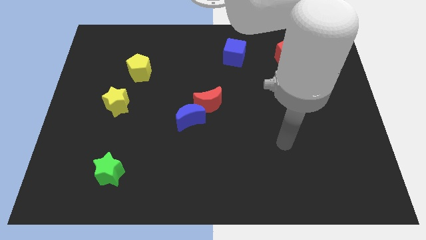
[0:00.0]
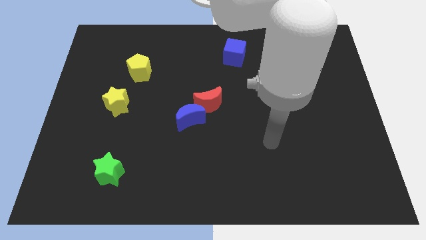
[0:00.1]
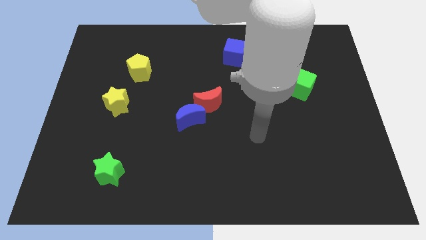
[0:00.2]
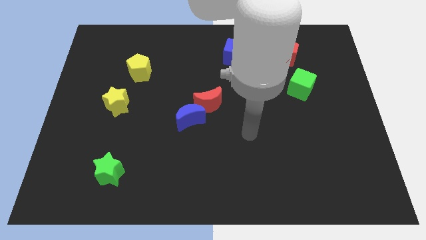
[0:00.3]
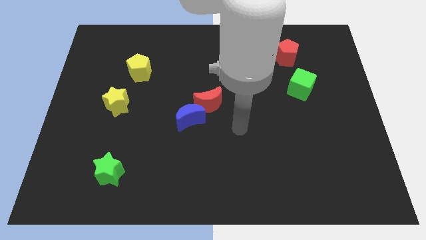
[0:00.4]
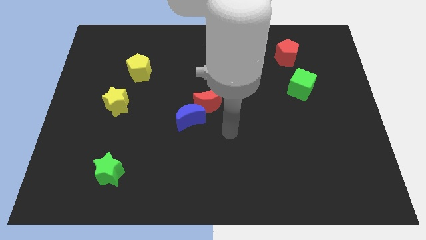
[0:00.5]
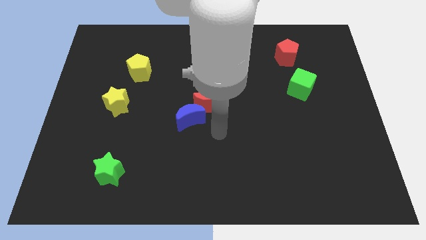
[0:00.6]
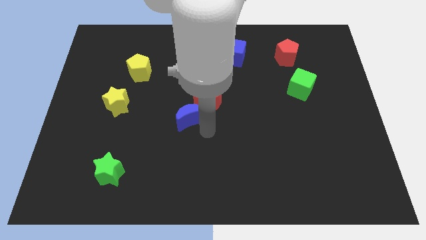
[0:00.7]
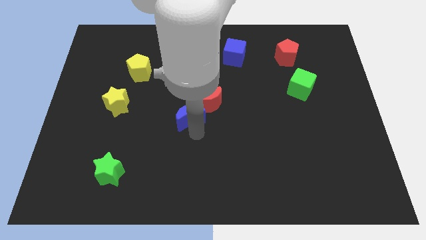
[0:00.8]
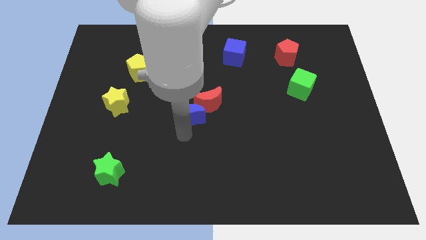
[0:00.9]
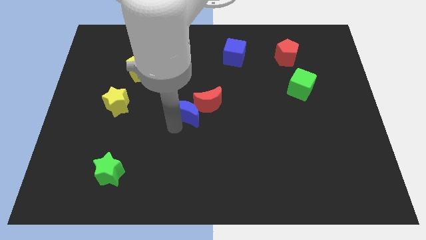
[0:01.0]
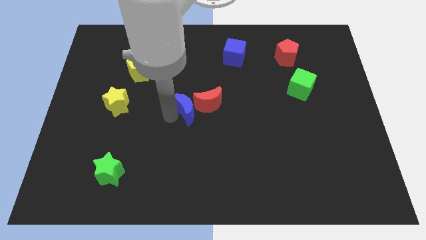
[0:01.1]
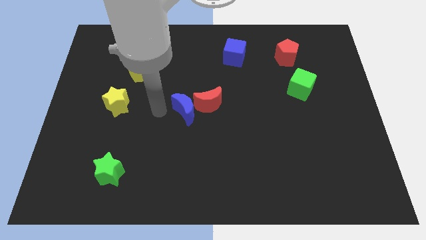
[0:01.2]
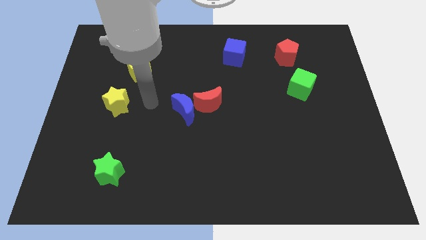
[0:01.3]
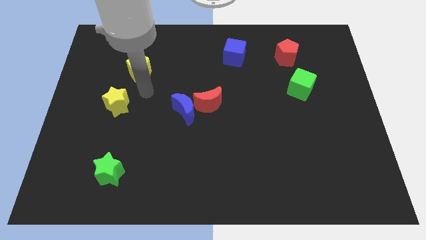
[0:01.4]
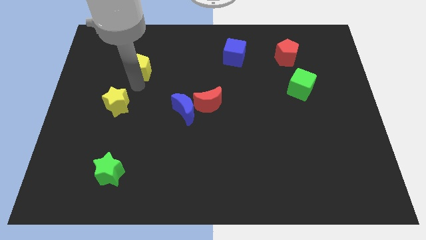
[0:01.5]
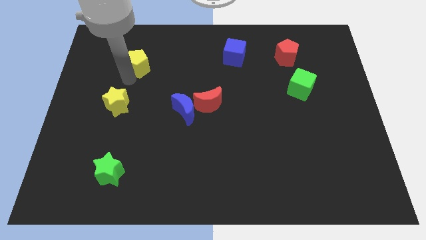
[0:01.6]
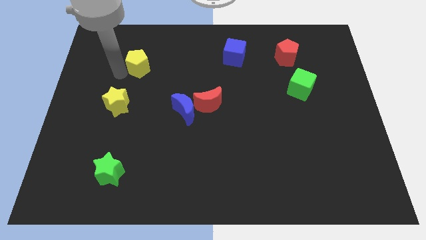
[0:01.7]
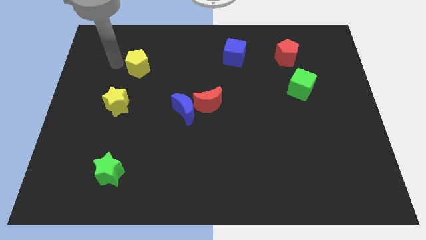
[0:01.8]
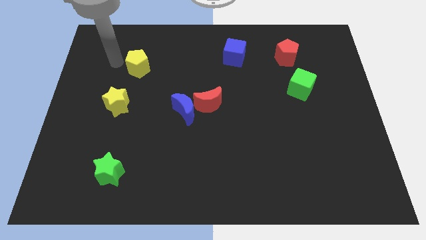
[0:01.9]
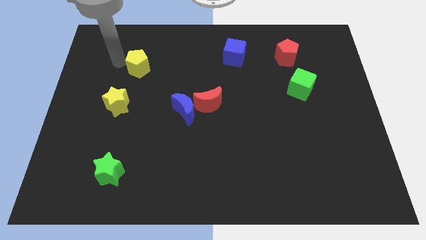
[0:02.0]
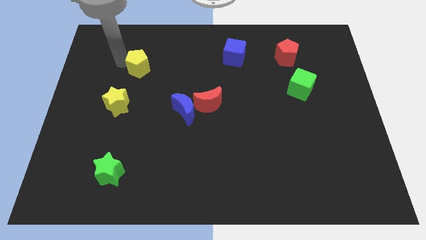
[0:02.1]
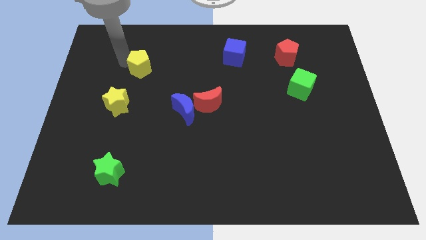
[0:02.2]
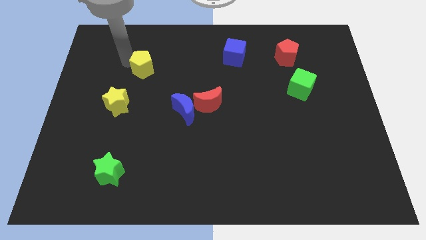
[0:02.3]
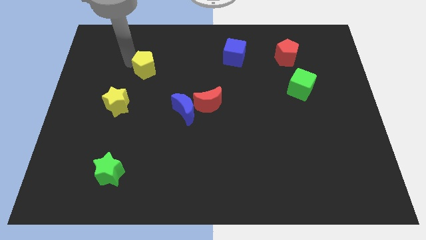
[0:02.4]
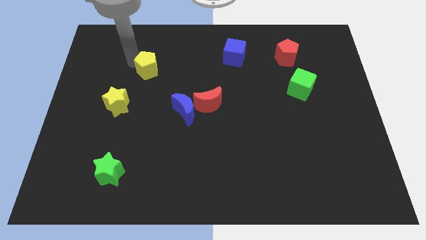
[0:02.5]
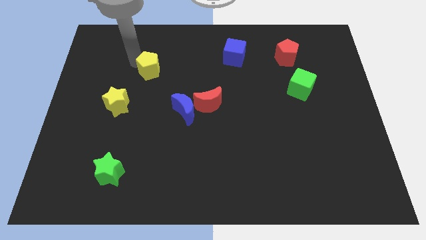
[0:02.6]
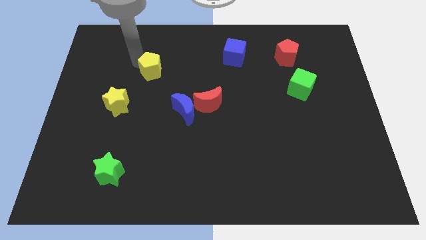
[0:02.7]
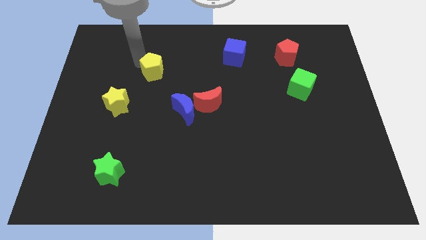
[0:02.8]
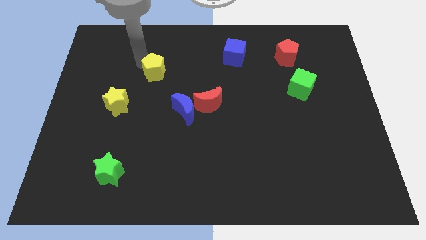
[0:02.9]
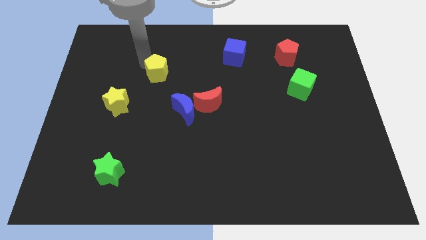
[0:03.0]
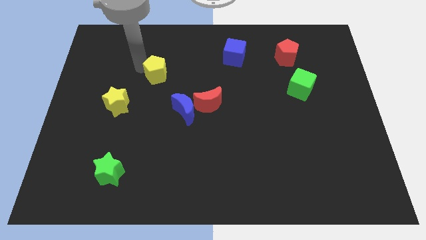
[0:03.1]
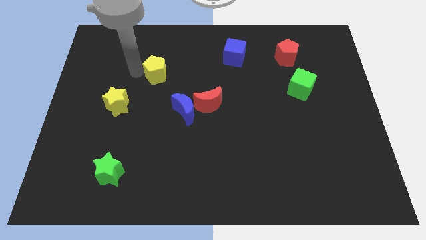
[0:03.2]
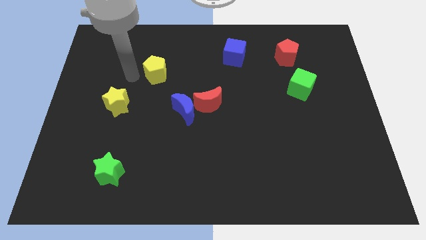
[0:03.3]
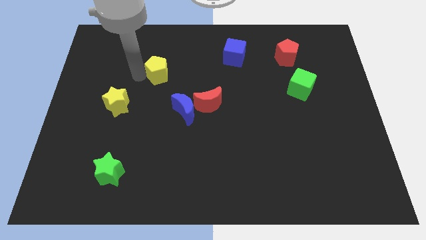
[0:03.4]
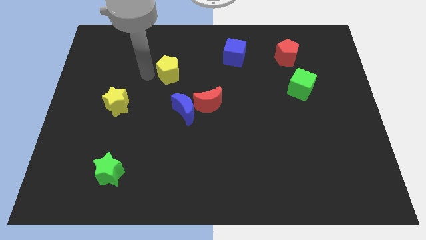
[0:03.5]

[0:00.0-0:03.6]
slightly push the yellow pentagon right

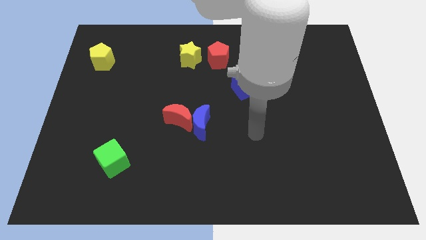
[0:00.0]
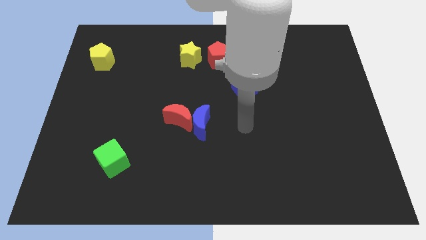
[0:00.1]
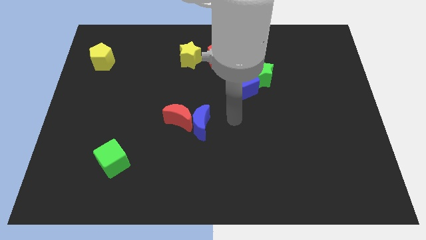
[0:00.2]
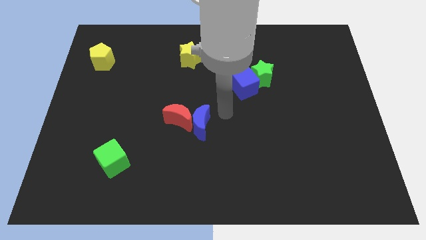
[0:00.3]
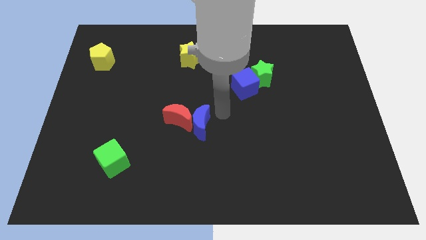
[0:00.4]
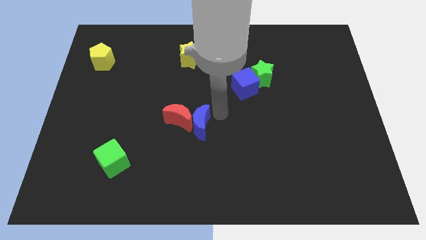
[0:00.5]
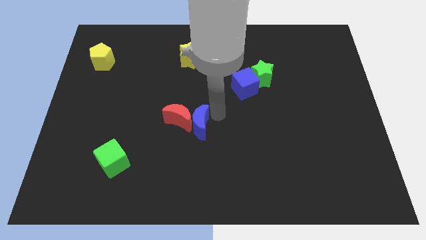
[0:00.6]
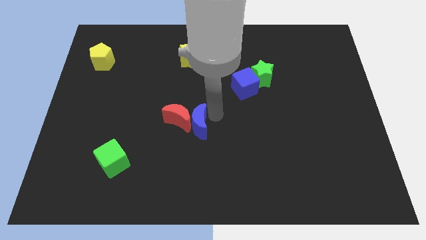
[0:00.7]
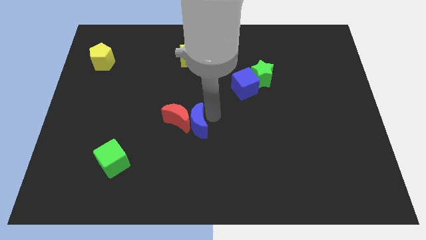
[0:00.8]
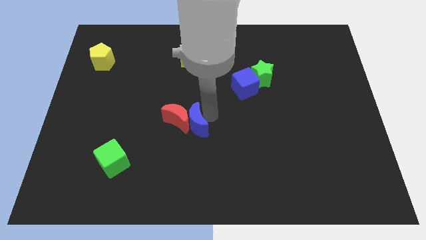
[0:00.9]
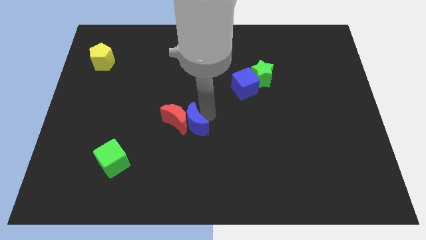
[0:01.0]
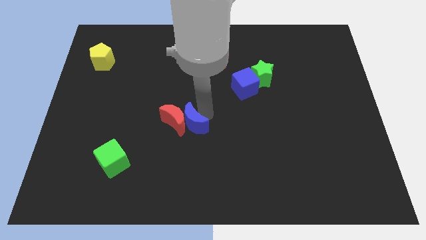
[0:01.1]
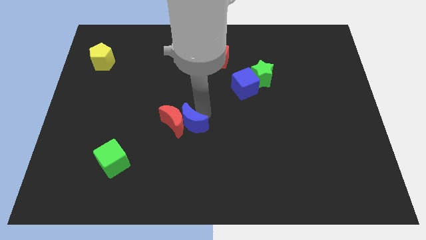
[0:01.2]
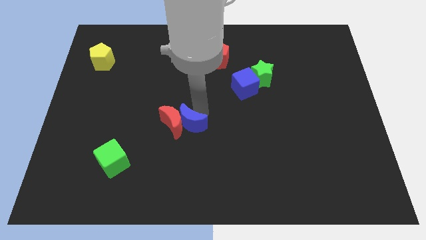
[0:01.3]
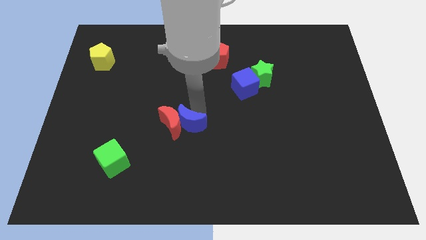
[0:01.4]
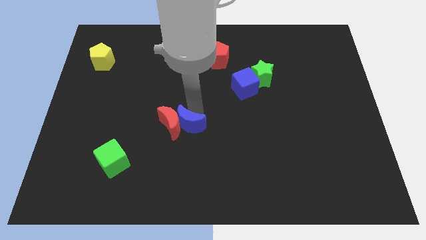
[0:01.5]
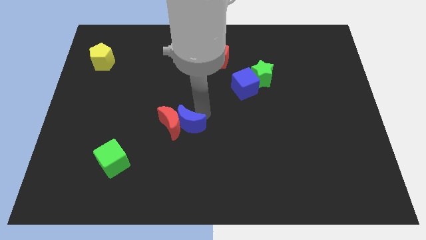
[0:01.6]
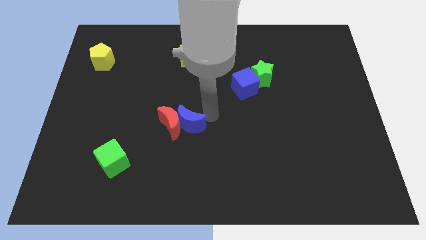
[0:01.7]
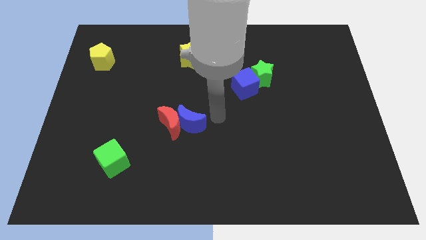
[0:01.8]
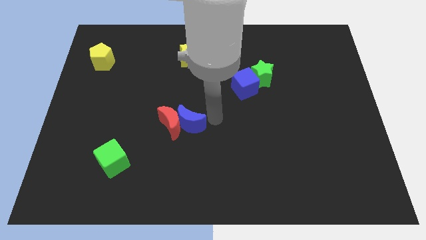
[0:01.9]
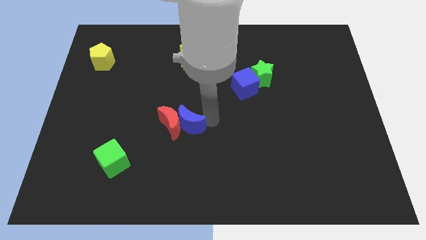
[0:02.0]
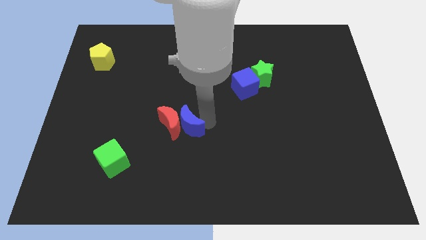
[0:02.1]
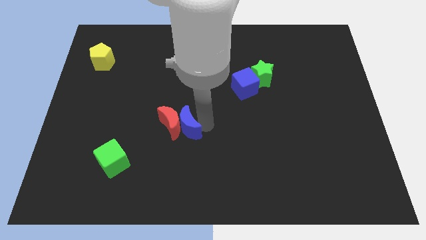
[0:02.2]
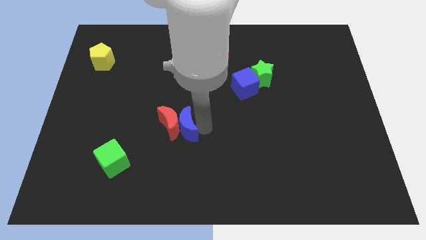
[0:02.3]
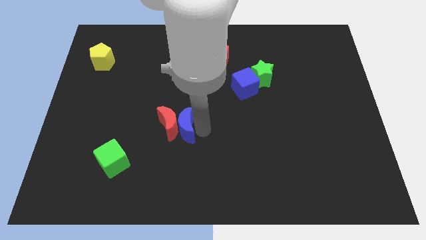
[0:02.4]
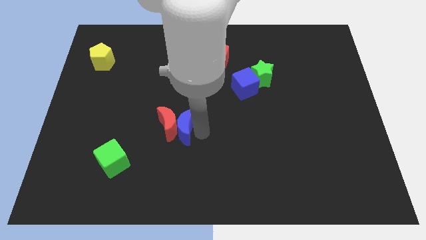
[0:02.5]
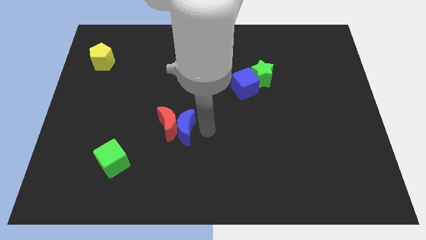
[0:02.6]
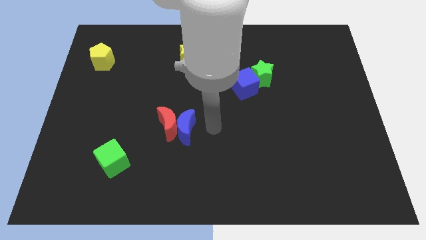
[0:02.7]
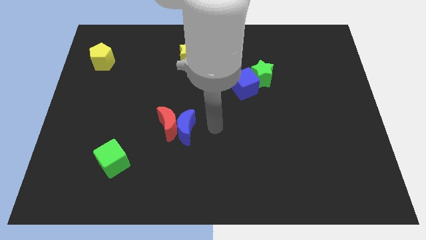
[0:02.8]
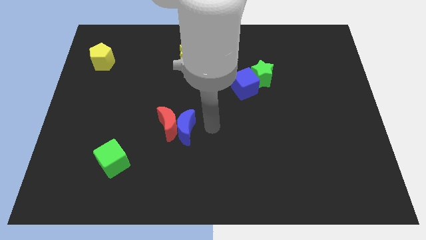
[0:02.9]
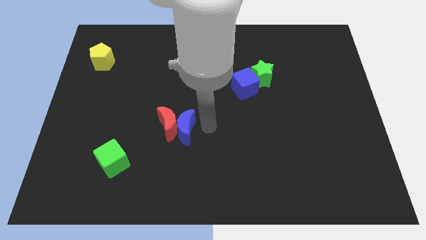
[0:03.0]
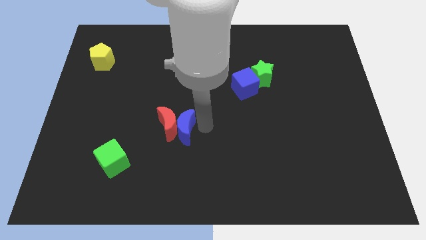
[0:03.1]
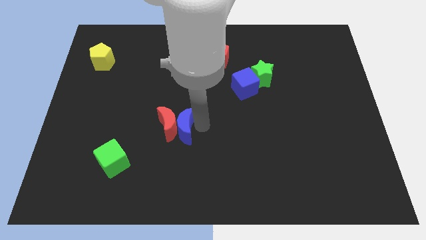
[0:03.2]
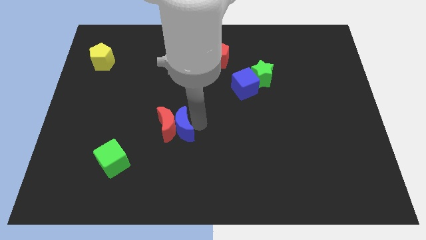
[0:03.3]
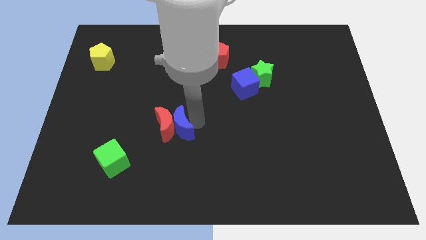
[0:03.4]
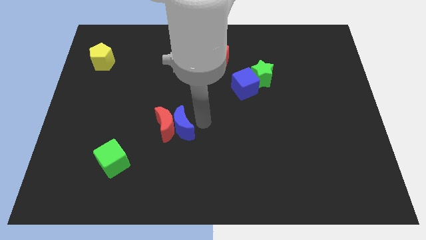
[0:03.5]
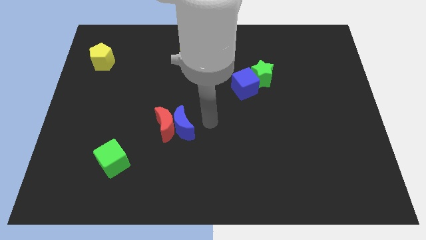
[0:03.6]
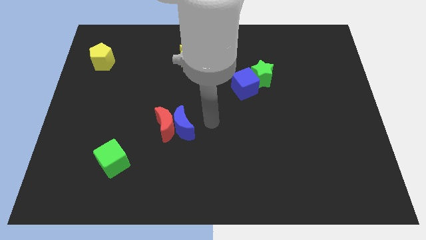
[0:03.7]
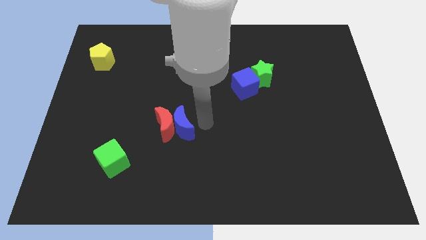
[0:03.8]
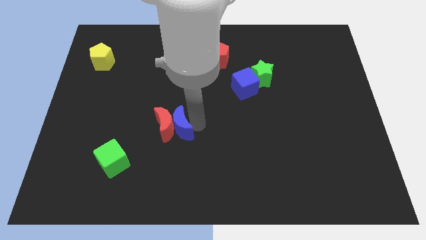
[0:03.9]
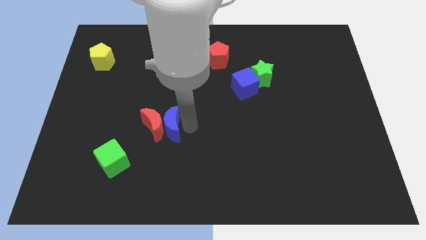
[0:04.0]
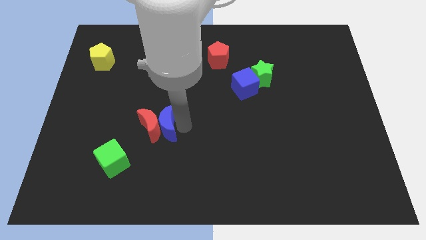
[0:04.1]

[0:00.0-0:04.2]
slightly move the blue moon left
